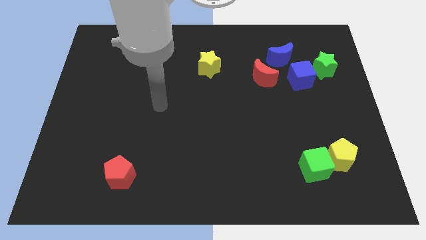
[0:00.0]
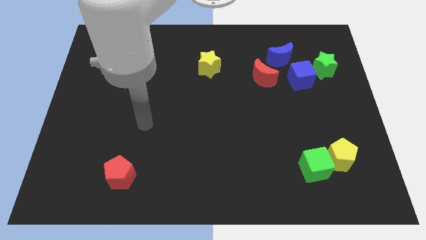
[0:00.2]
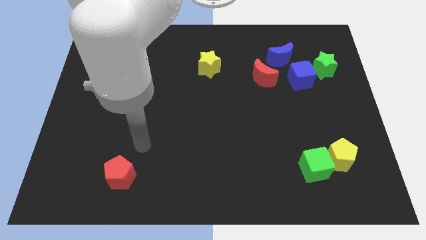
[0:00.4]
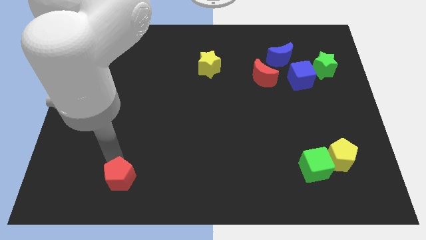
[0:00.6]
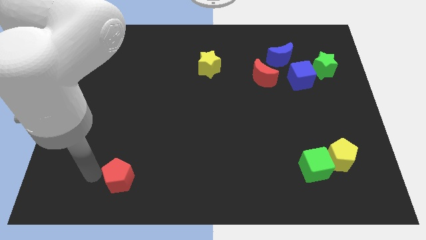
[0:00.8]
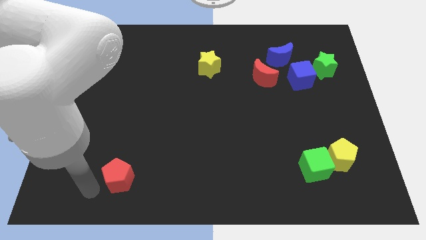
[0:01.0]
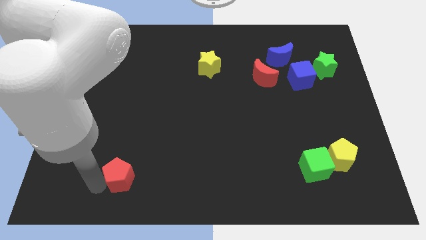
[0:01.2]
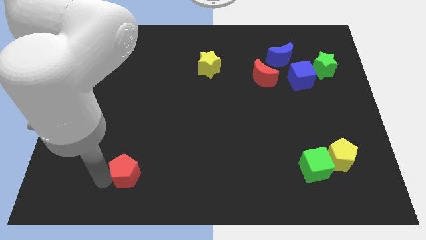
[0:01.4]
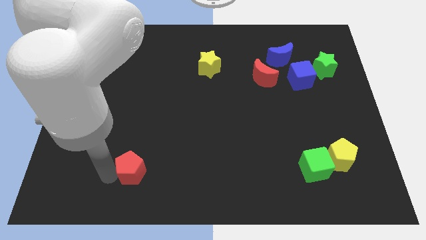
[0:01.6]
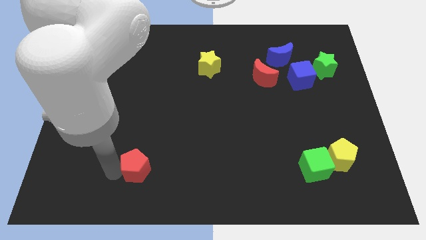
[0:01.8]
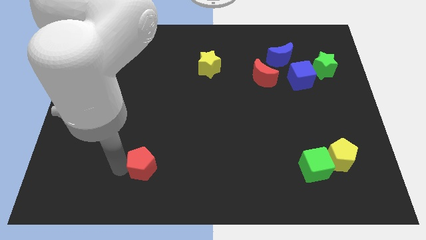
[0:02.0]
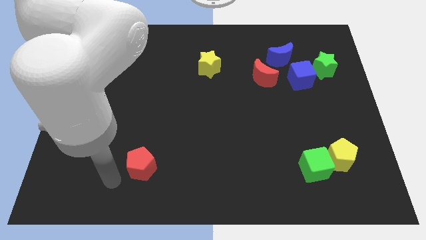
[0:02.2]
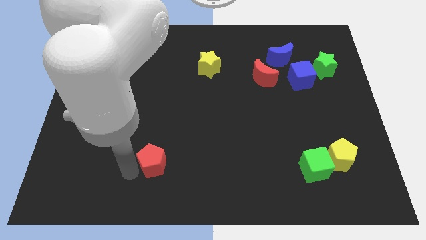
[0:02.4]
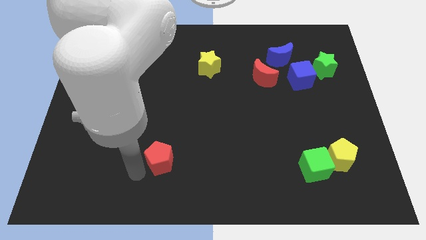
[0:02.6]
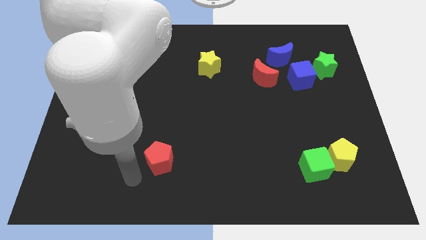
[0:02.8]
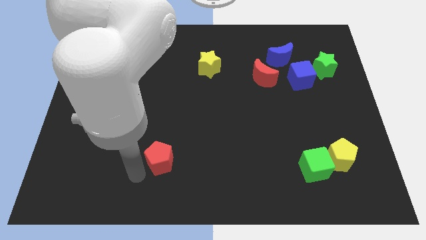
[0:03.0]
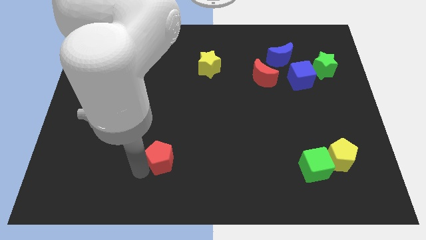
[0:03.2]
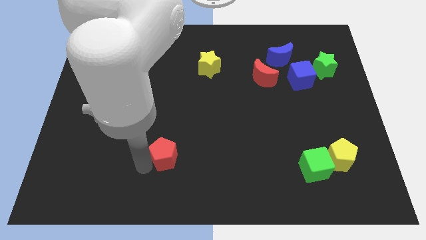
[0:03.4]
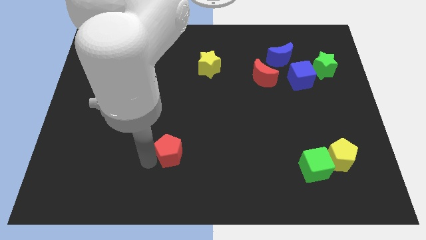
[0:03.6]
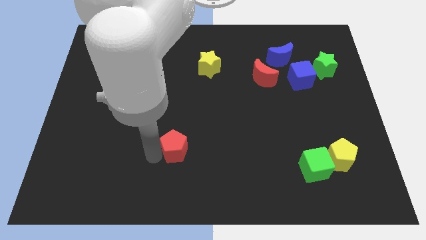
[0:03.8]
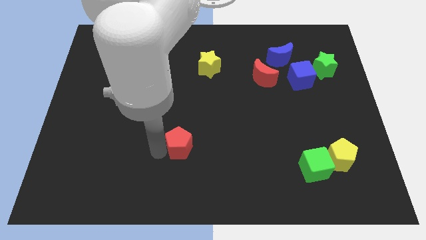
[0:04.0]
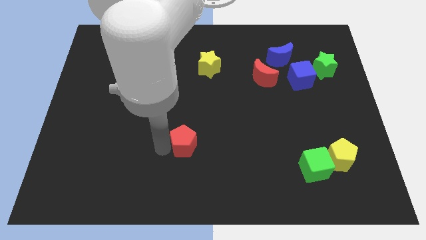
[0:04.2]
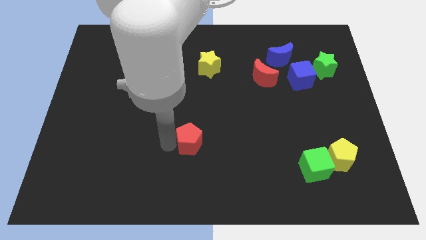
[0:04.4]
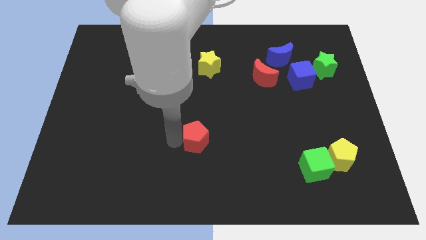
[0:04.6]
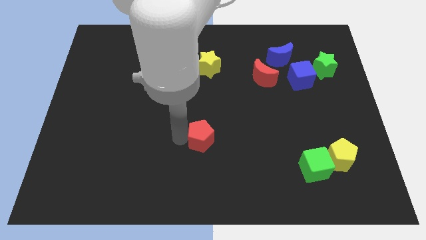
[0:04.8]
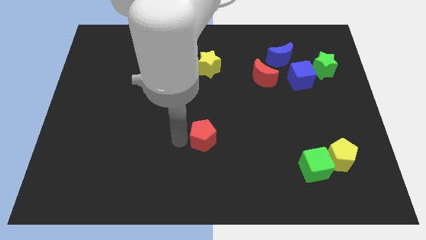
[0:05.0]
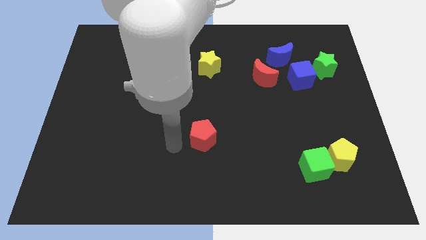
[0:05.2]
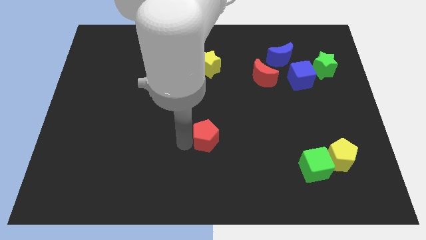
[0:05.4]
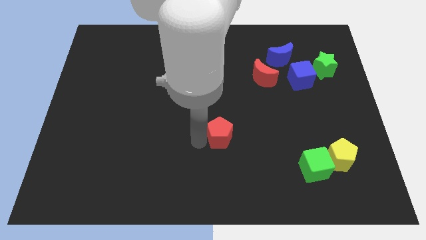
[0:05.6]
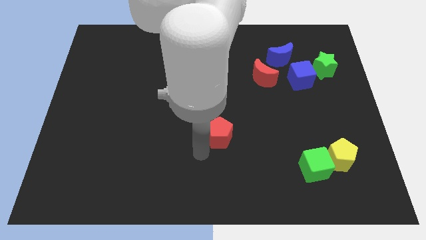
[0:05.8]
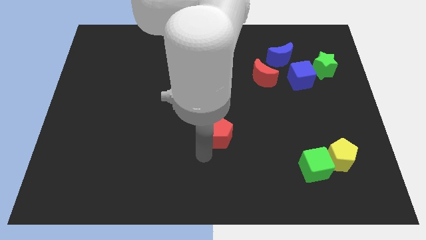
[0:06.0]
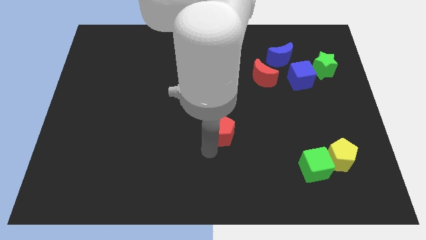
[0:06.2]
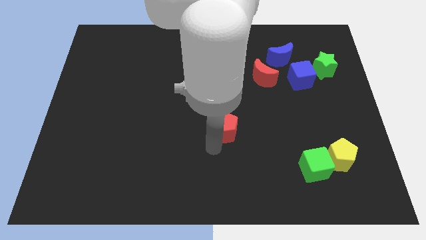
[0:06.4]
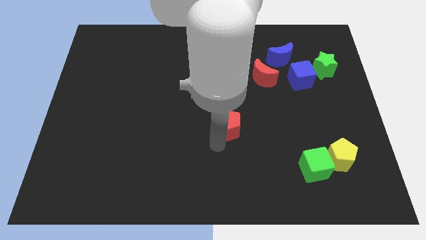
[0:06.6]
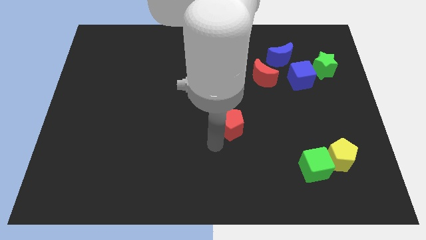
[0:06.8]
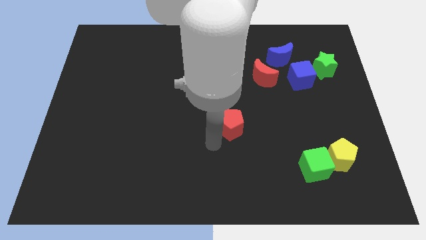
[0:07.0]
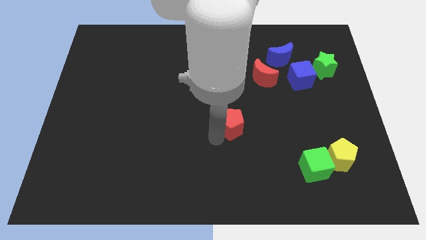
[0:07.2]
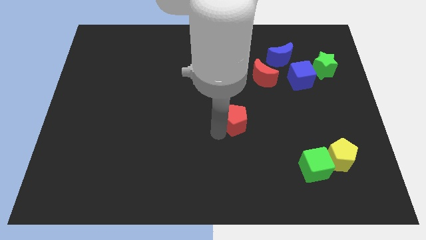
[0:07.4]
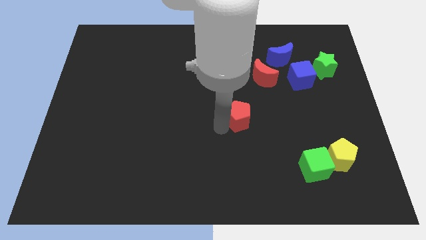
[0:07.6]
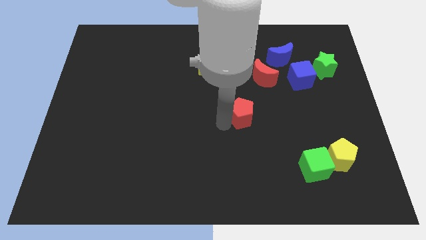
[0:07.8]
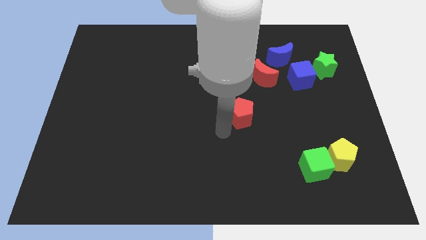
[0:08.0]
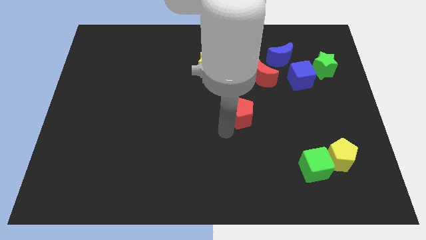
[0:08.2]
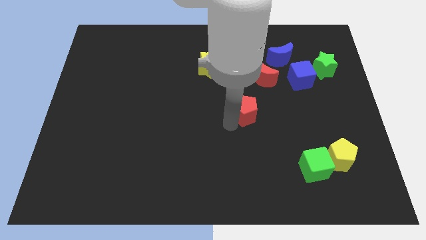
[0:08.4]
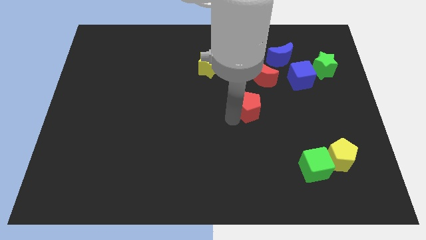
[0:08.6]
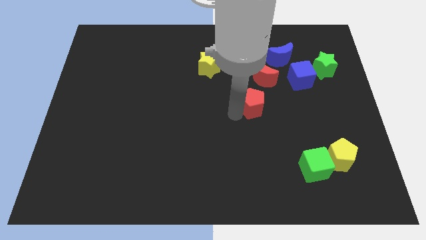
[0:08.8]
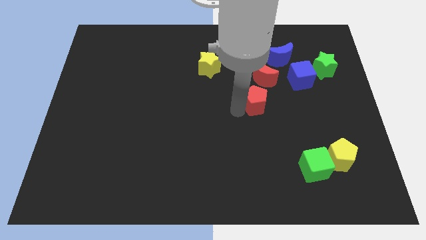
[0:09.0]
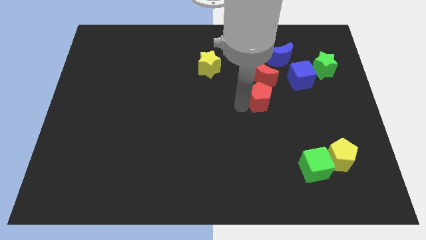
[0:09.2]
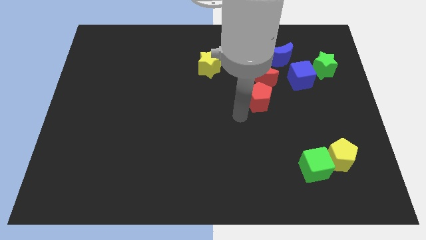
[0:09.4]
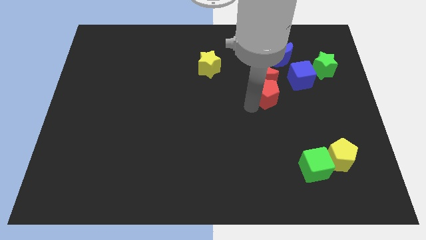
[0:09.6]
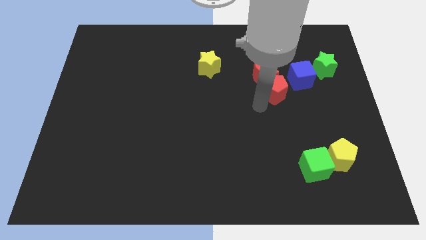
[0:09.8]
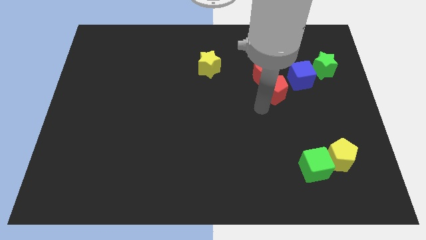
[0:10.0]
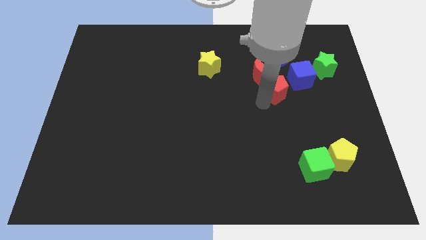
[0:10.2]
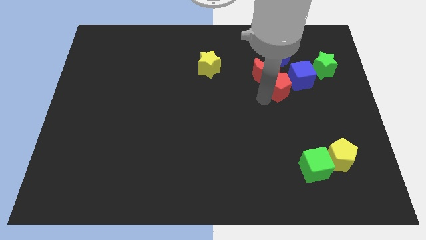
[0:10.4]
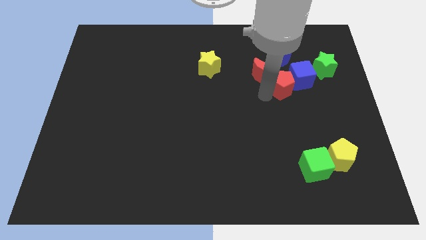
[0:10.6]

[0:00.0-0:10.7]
put the red pentagon next to the blue cube

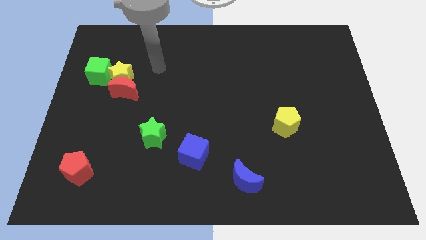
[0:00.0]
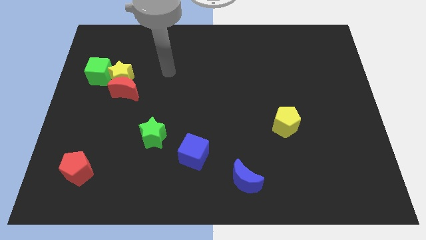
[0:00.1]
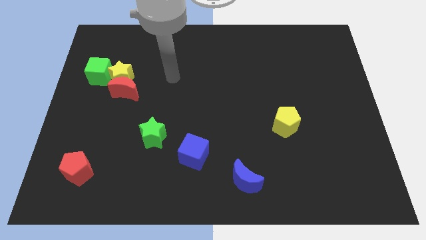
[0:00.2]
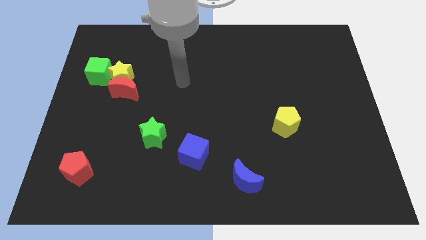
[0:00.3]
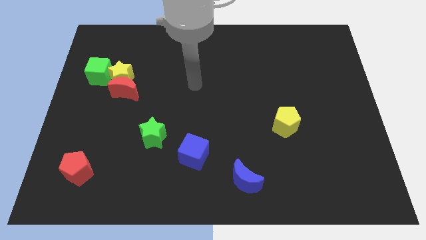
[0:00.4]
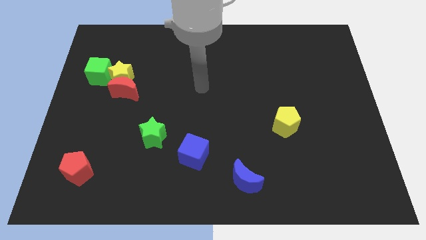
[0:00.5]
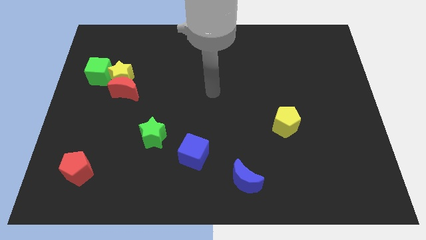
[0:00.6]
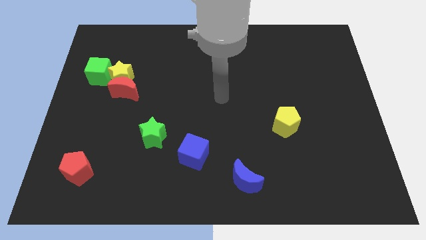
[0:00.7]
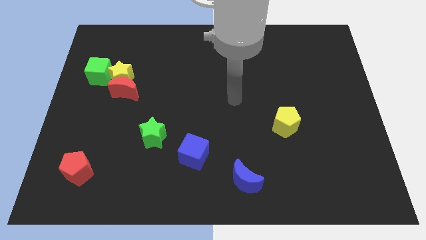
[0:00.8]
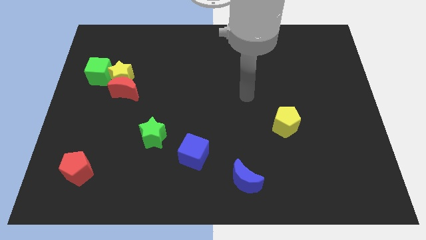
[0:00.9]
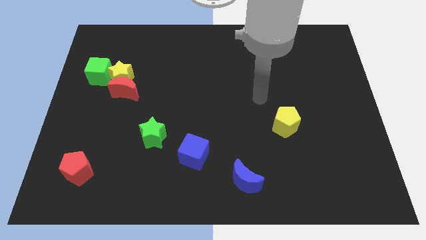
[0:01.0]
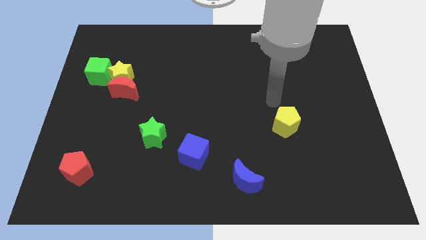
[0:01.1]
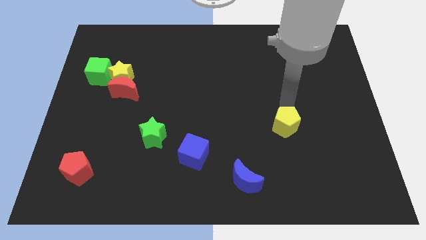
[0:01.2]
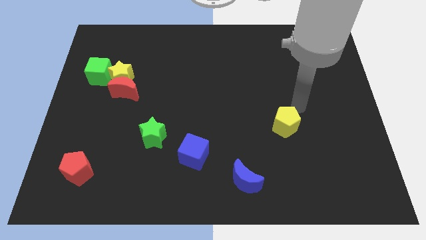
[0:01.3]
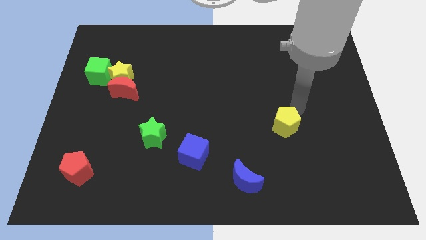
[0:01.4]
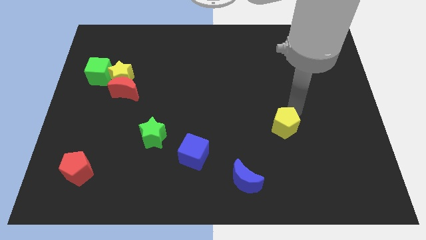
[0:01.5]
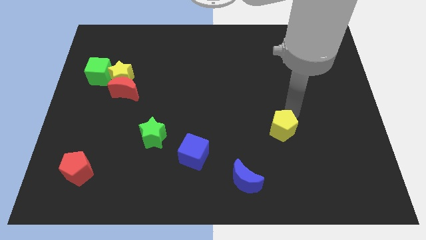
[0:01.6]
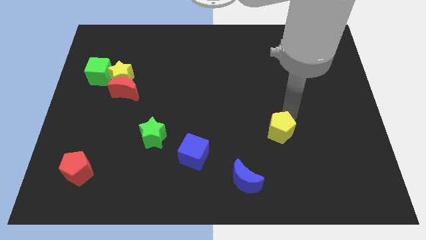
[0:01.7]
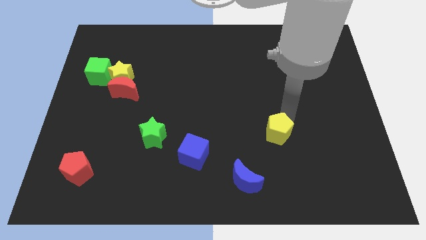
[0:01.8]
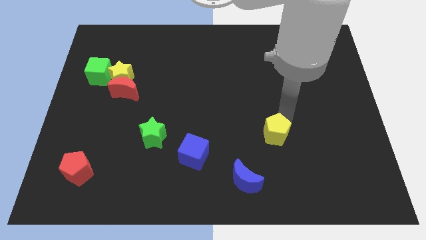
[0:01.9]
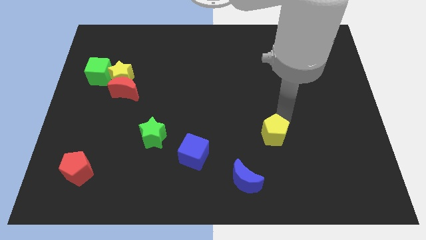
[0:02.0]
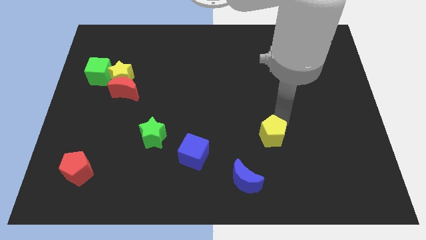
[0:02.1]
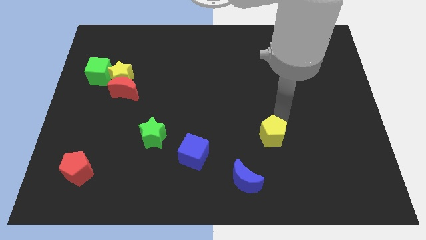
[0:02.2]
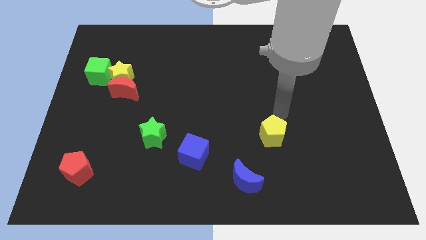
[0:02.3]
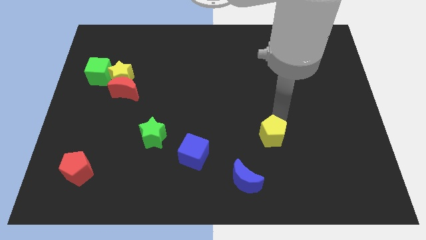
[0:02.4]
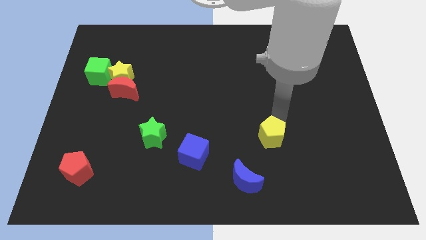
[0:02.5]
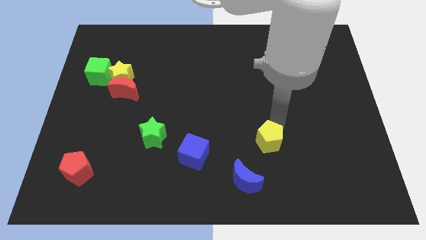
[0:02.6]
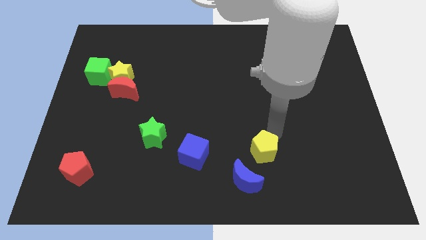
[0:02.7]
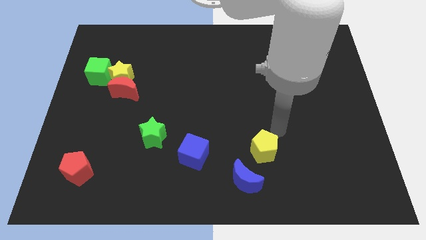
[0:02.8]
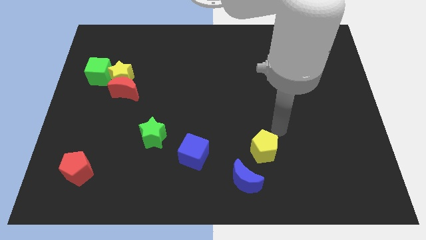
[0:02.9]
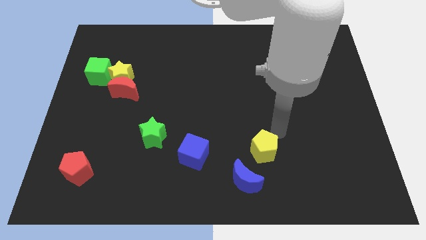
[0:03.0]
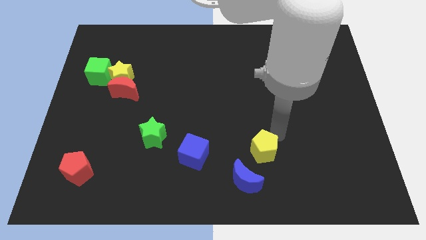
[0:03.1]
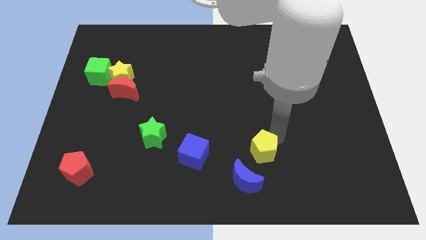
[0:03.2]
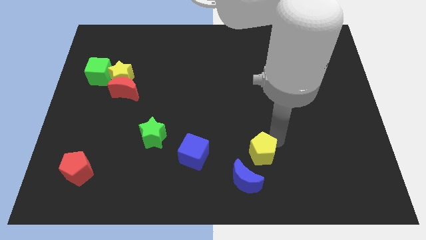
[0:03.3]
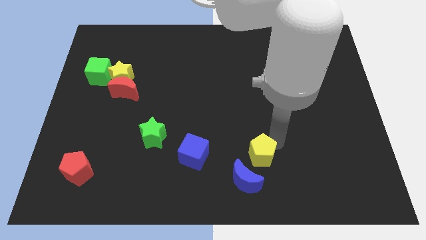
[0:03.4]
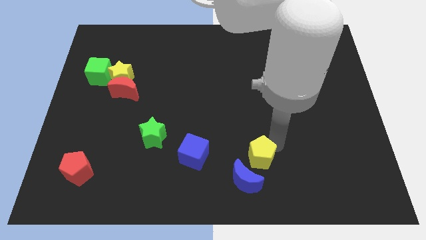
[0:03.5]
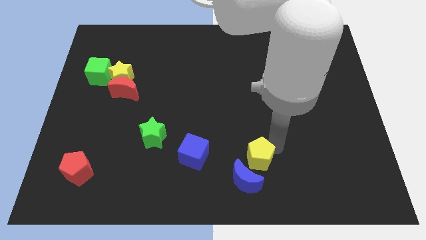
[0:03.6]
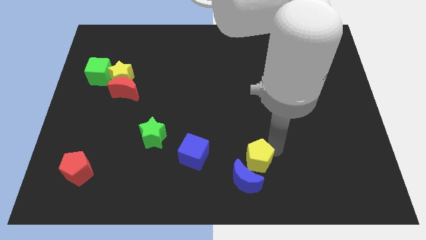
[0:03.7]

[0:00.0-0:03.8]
put the yellow pentagon next to the blue moon
